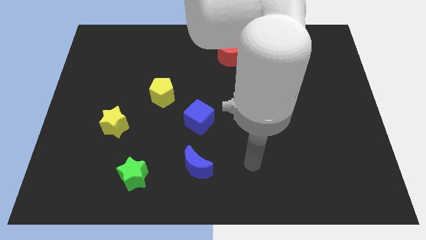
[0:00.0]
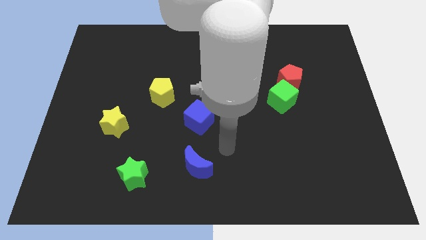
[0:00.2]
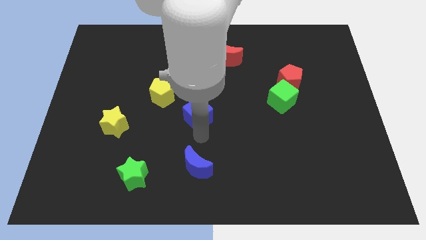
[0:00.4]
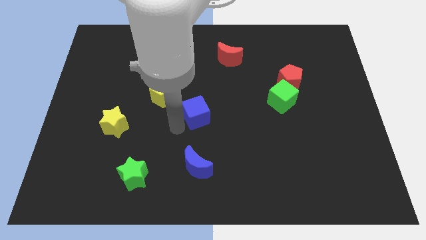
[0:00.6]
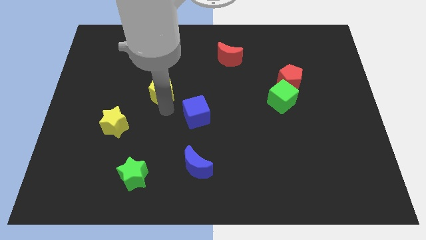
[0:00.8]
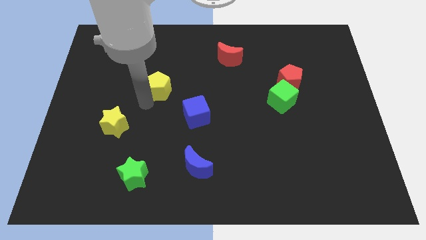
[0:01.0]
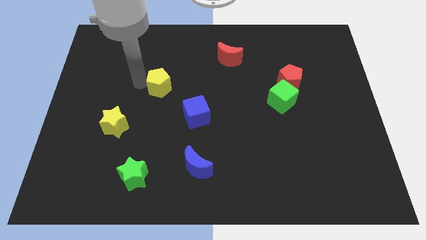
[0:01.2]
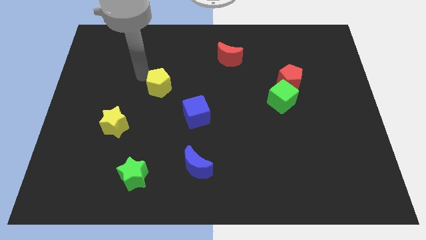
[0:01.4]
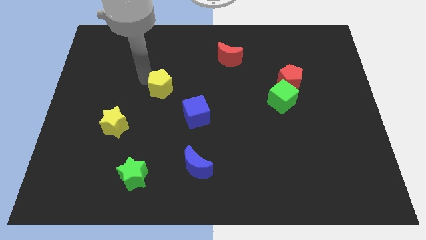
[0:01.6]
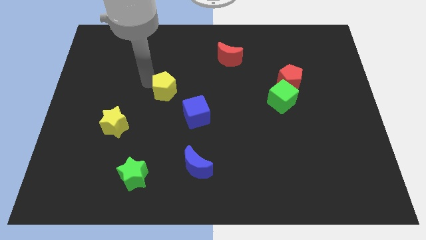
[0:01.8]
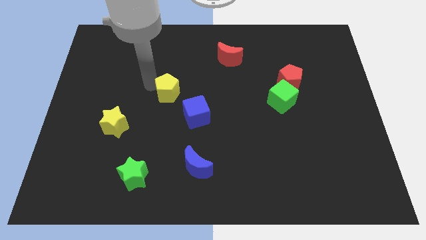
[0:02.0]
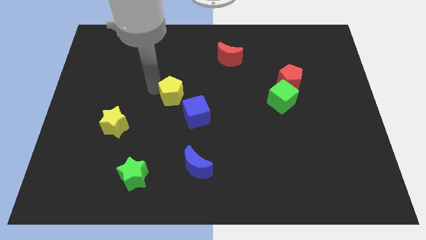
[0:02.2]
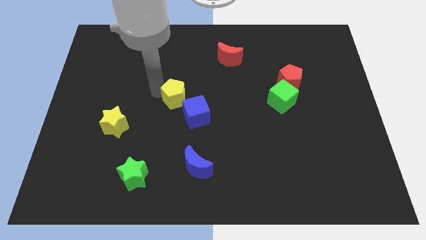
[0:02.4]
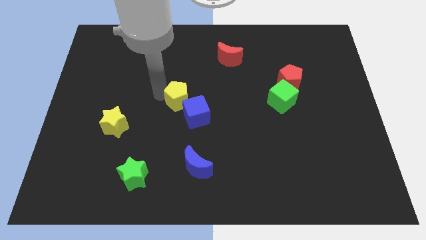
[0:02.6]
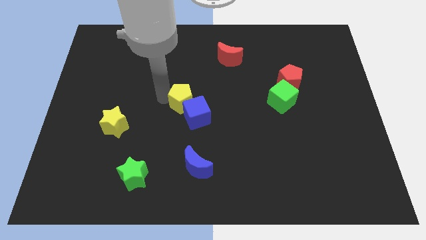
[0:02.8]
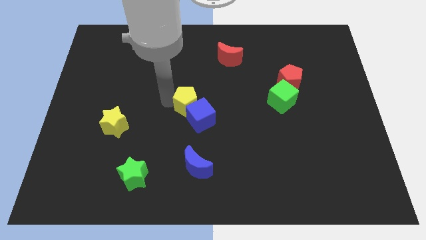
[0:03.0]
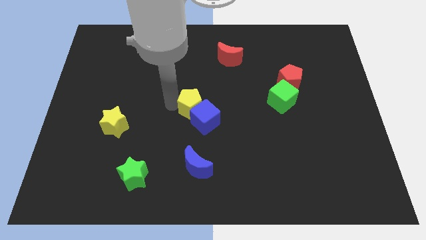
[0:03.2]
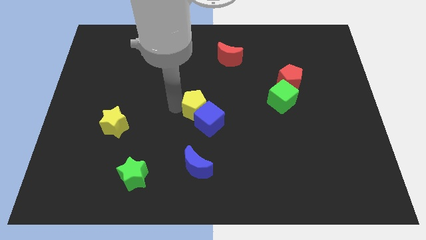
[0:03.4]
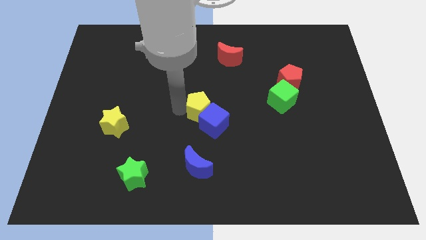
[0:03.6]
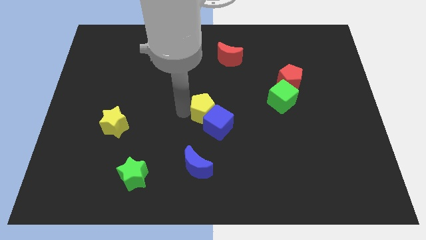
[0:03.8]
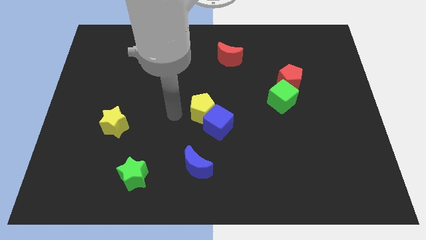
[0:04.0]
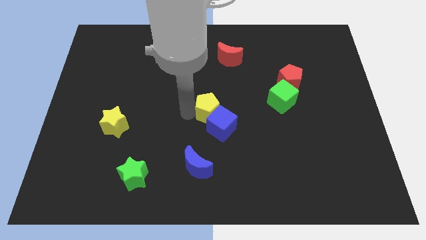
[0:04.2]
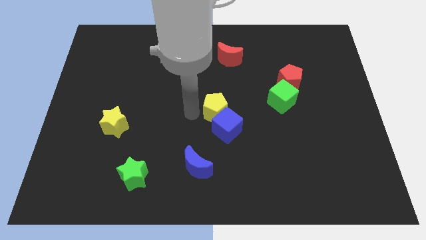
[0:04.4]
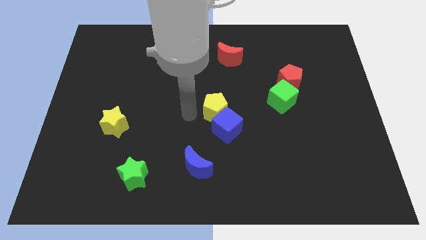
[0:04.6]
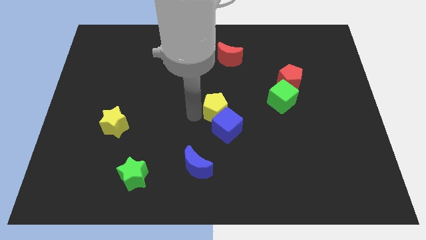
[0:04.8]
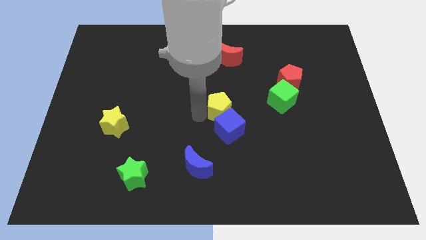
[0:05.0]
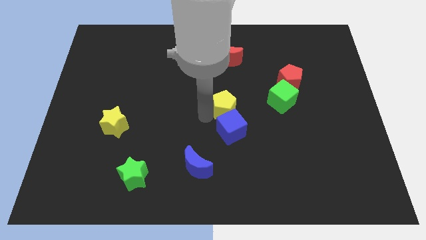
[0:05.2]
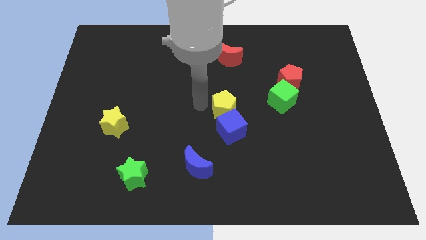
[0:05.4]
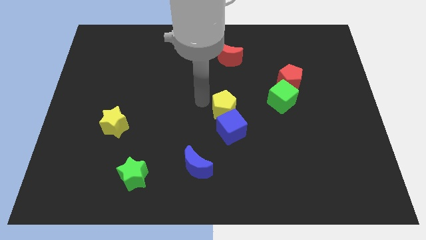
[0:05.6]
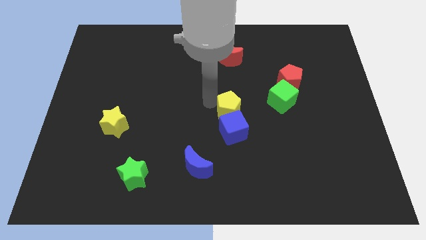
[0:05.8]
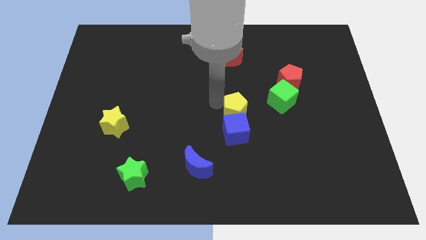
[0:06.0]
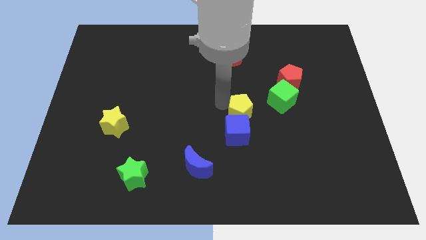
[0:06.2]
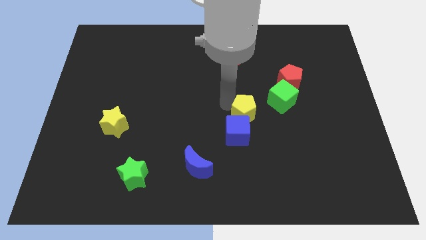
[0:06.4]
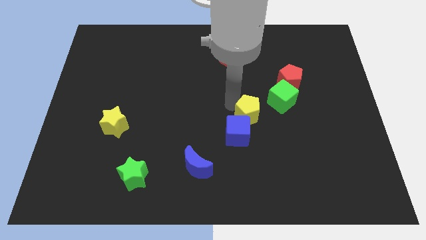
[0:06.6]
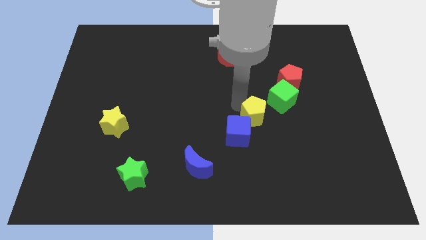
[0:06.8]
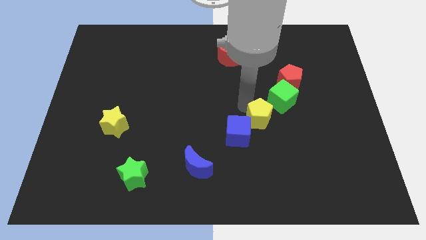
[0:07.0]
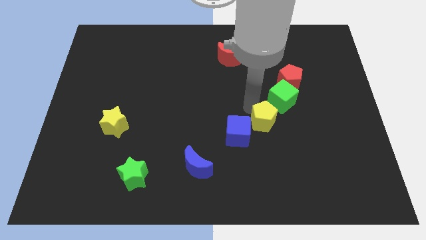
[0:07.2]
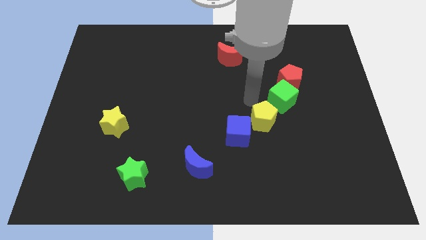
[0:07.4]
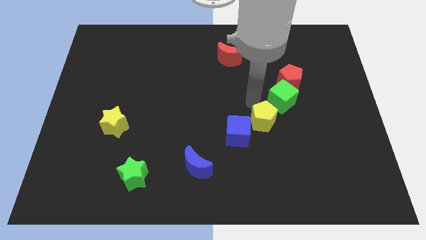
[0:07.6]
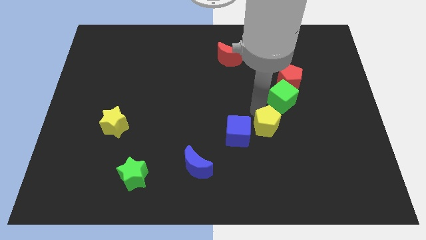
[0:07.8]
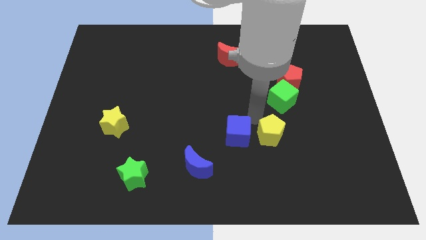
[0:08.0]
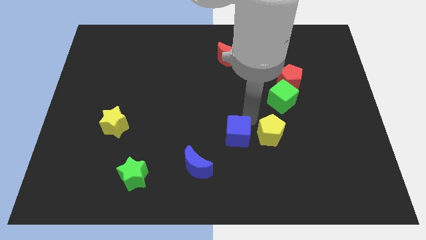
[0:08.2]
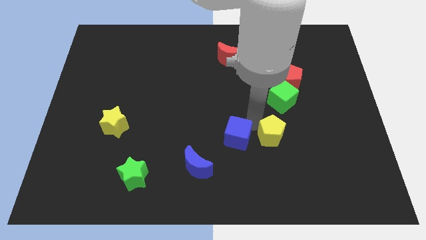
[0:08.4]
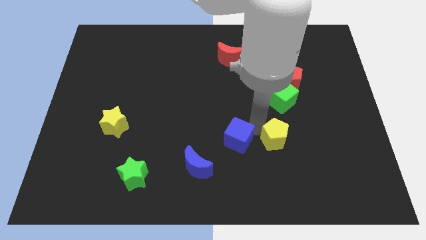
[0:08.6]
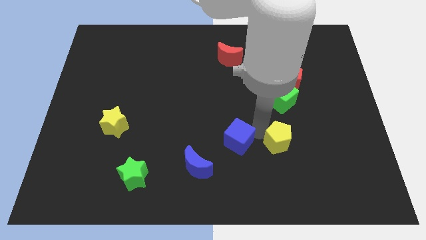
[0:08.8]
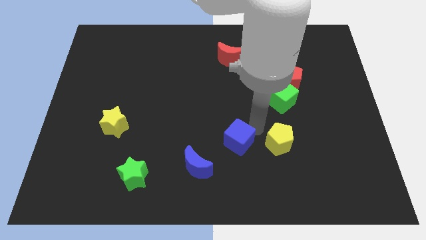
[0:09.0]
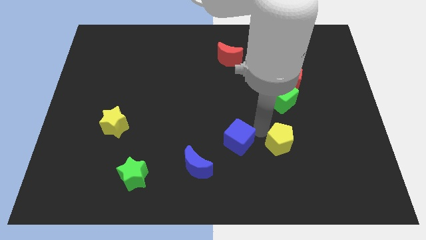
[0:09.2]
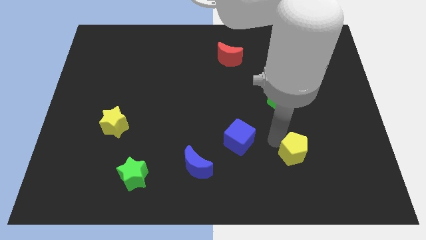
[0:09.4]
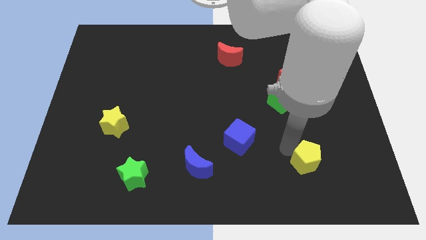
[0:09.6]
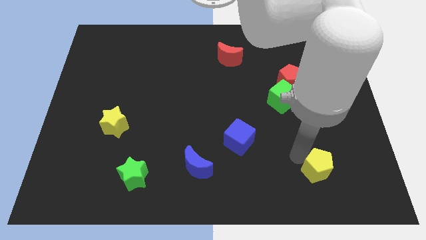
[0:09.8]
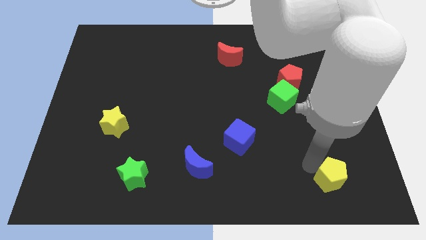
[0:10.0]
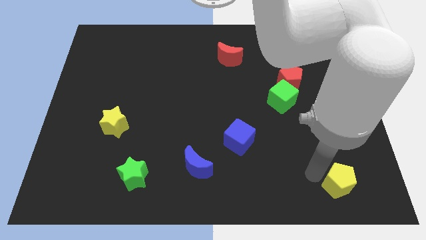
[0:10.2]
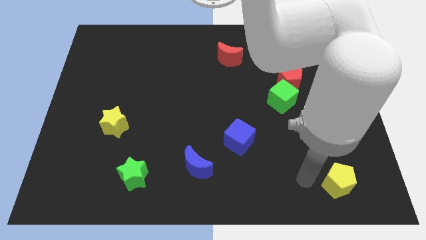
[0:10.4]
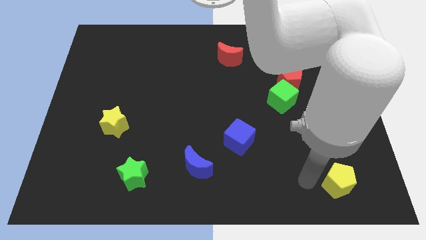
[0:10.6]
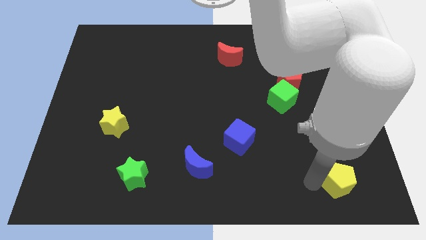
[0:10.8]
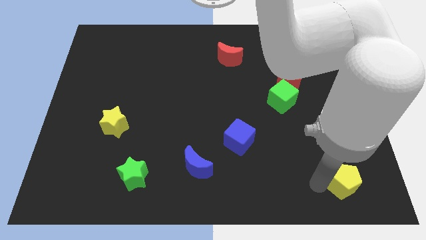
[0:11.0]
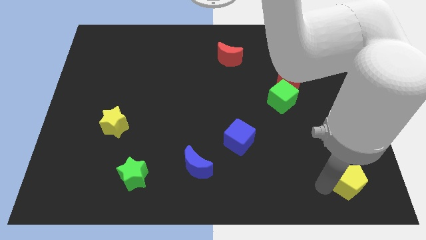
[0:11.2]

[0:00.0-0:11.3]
push the yellow pentagon to the lower right corner

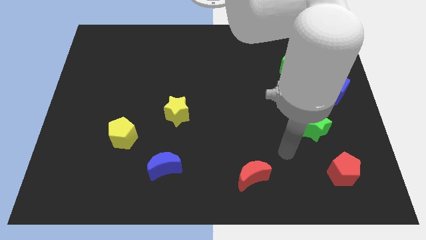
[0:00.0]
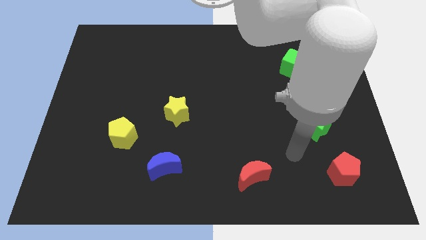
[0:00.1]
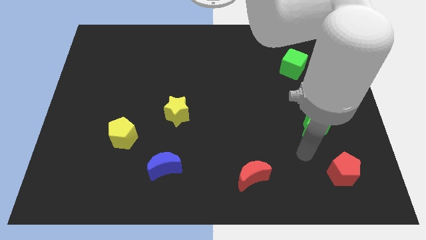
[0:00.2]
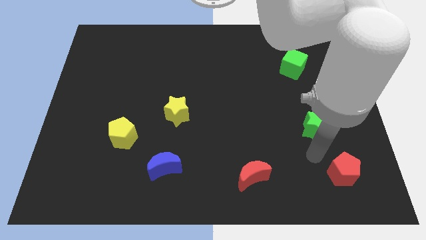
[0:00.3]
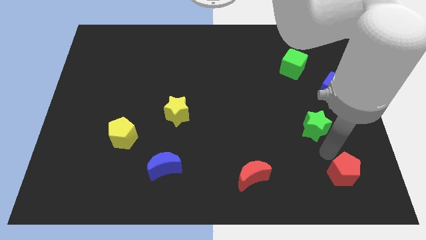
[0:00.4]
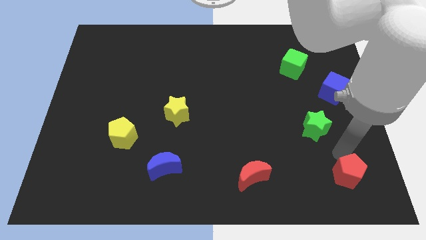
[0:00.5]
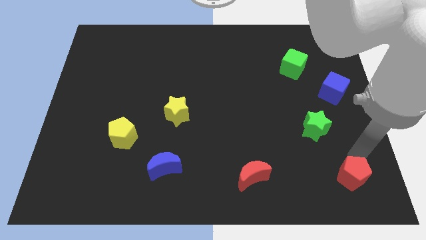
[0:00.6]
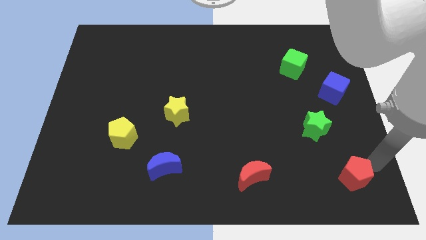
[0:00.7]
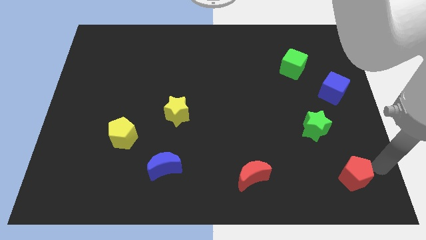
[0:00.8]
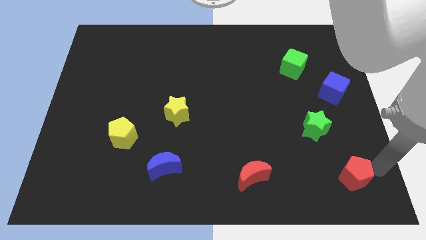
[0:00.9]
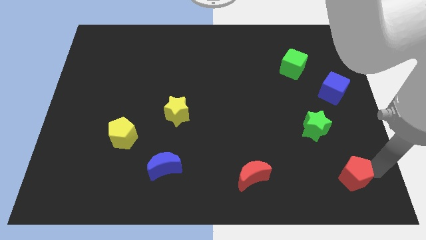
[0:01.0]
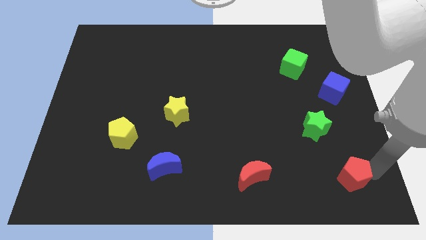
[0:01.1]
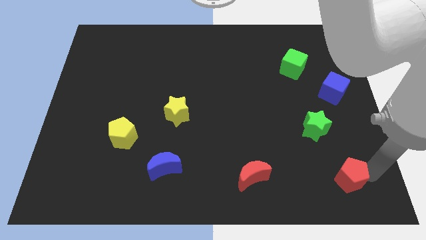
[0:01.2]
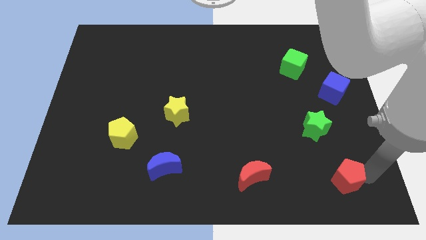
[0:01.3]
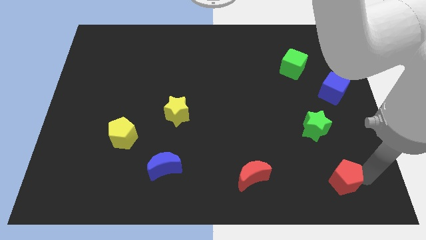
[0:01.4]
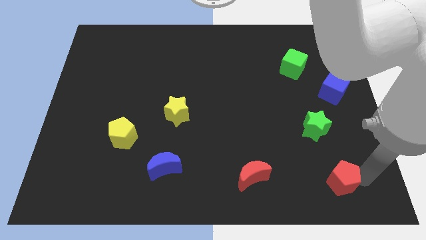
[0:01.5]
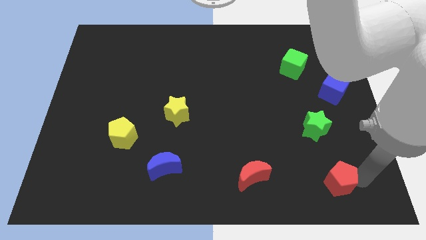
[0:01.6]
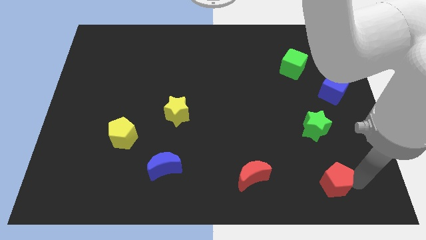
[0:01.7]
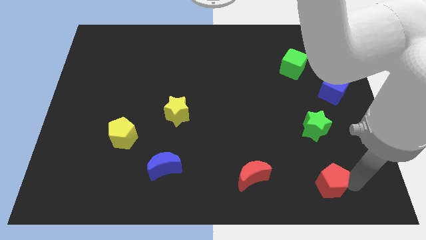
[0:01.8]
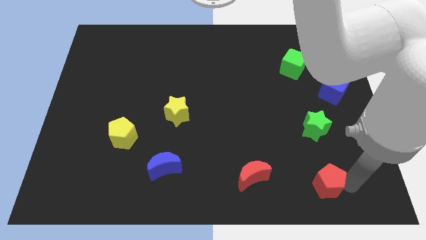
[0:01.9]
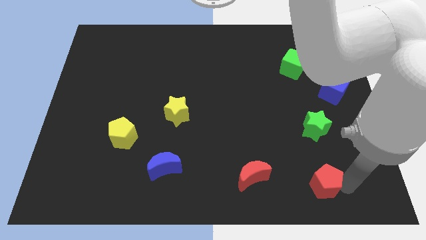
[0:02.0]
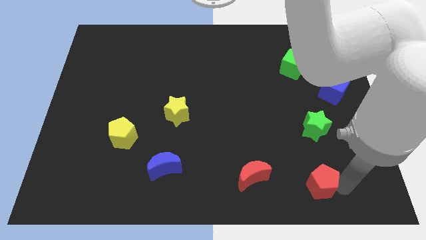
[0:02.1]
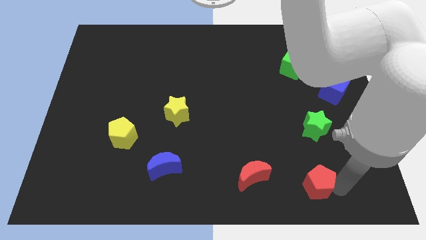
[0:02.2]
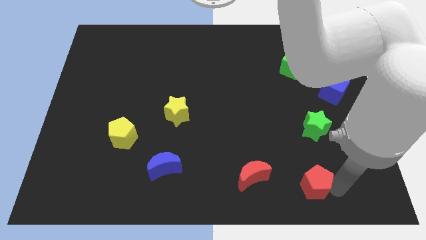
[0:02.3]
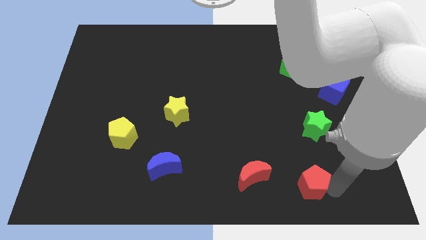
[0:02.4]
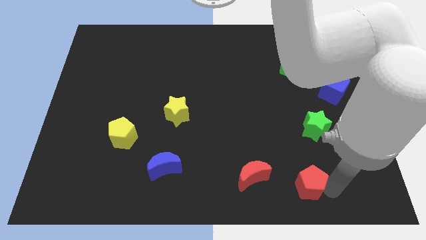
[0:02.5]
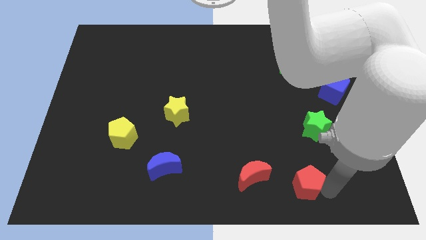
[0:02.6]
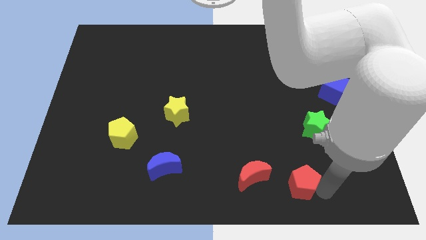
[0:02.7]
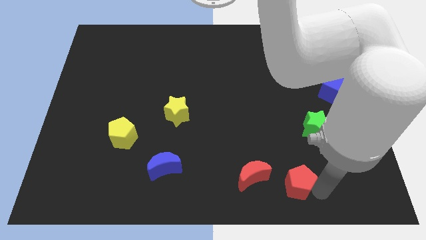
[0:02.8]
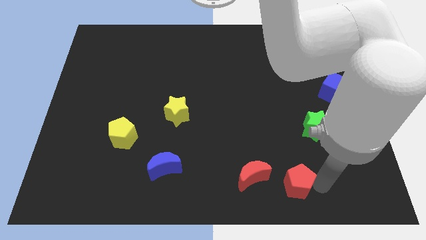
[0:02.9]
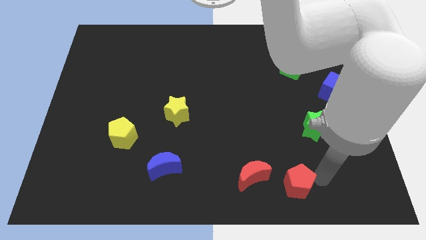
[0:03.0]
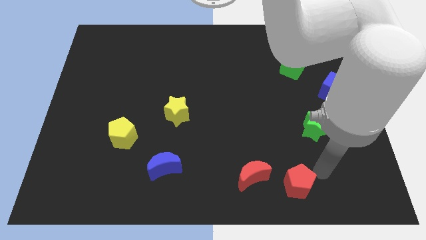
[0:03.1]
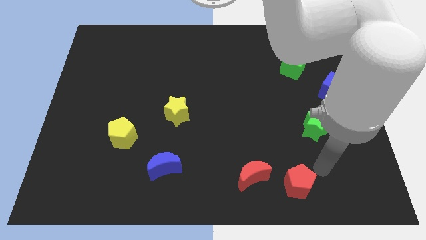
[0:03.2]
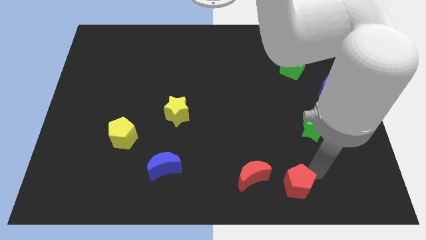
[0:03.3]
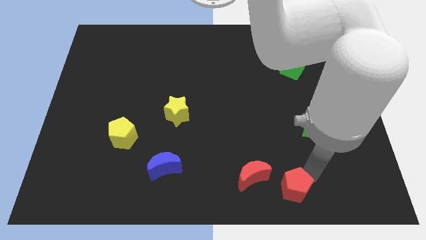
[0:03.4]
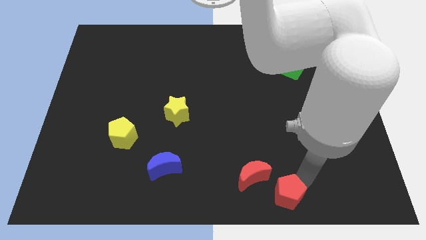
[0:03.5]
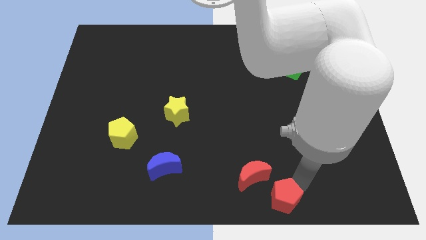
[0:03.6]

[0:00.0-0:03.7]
push the red pentagon to the bottom side
